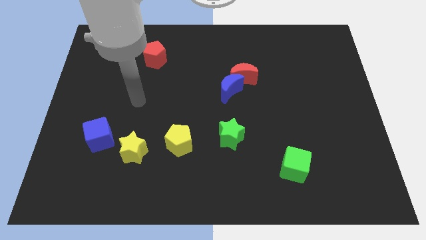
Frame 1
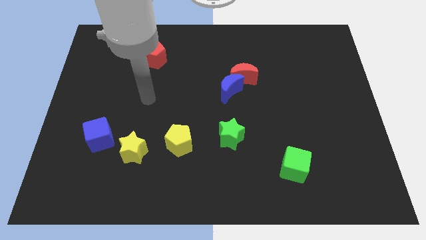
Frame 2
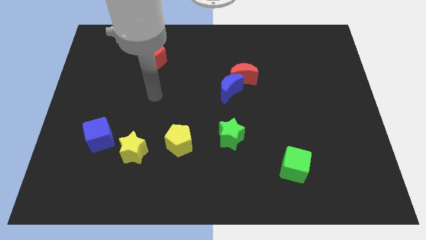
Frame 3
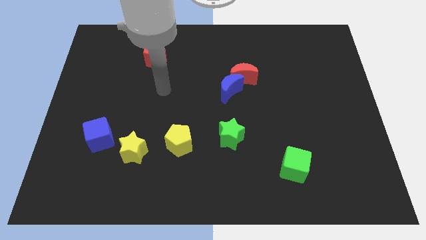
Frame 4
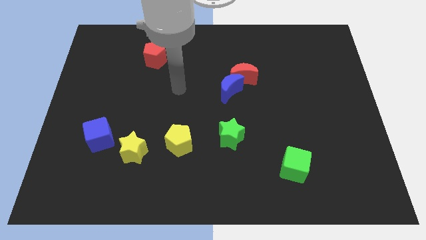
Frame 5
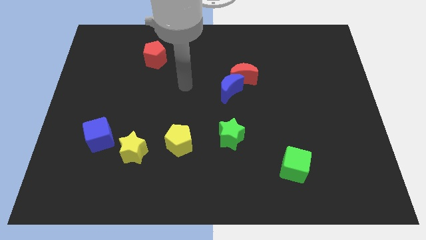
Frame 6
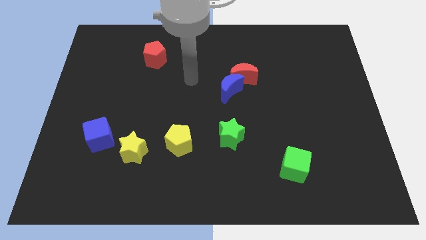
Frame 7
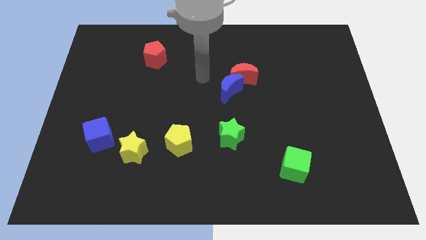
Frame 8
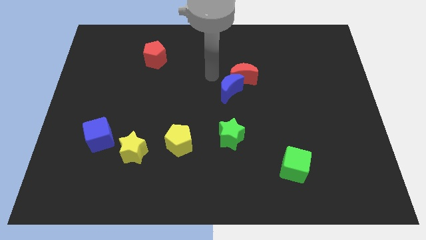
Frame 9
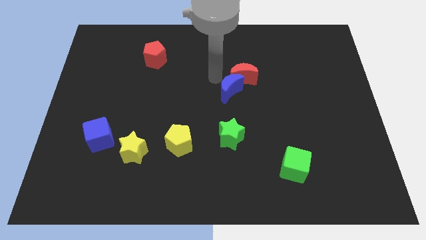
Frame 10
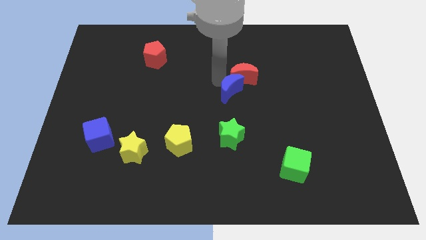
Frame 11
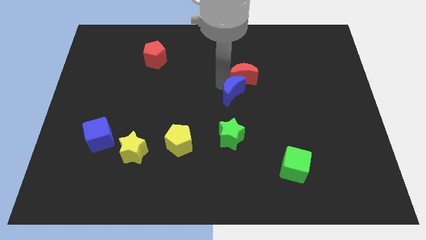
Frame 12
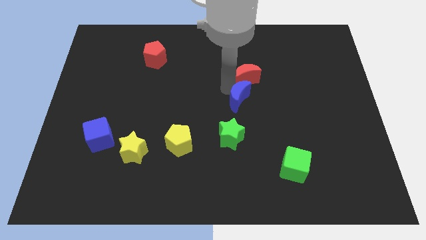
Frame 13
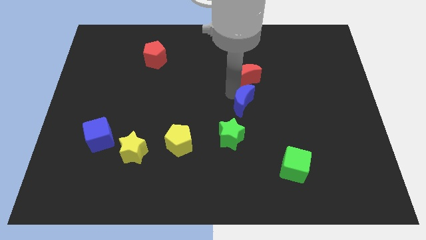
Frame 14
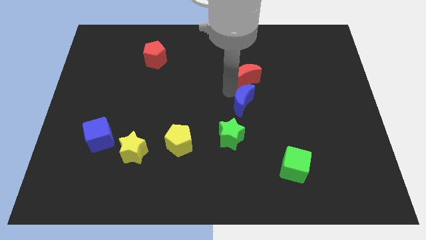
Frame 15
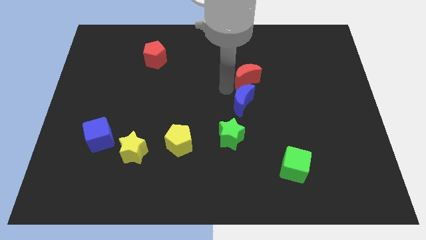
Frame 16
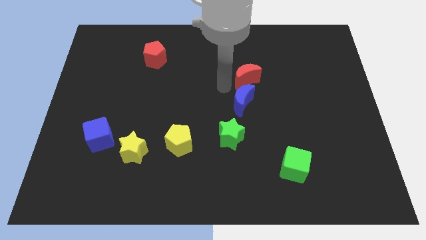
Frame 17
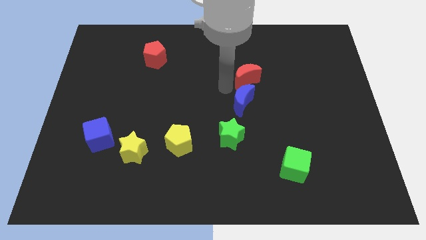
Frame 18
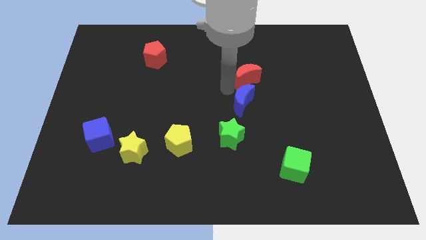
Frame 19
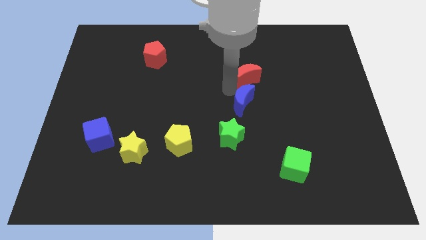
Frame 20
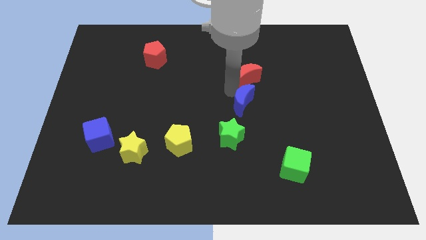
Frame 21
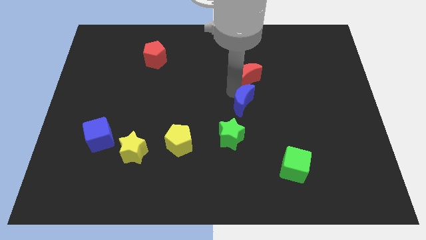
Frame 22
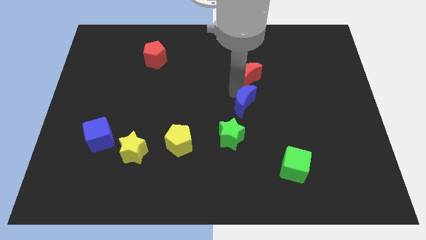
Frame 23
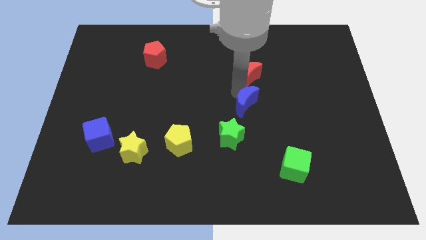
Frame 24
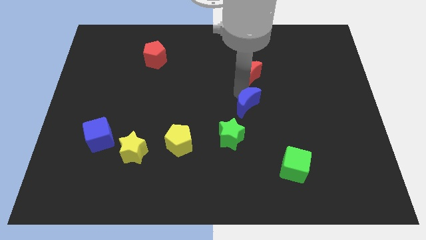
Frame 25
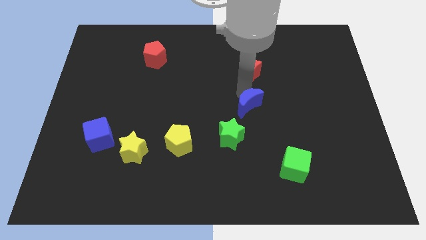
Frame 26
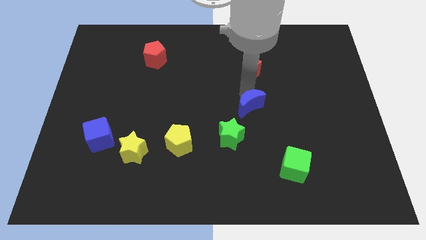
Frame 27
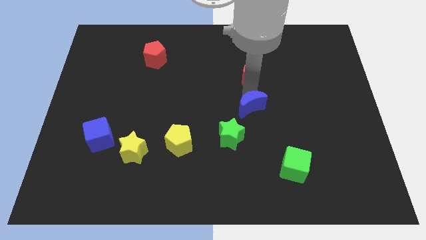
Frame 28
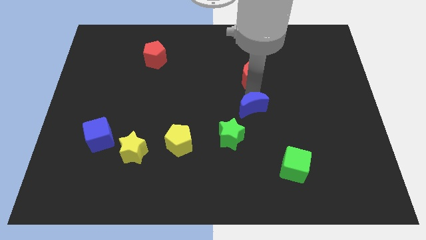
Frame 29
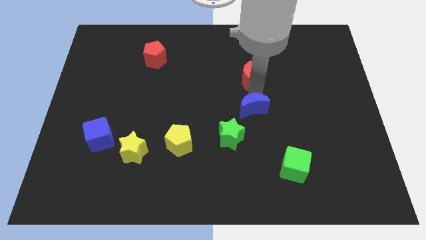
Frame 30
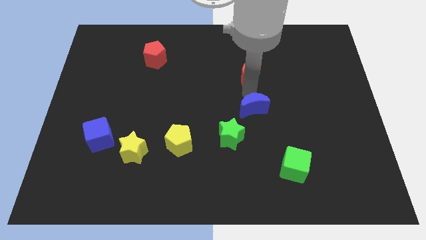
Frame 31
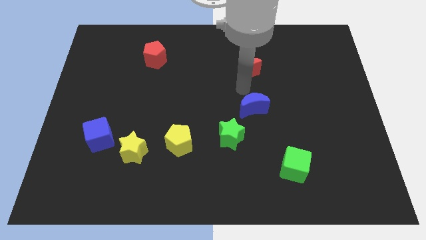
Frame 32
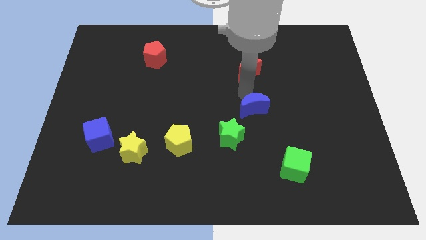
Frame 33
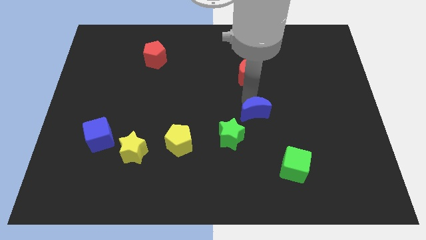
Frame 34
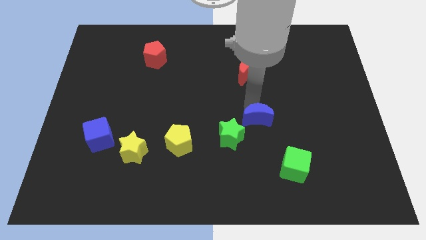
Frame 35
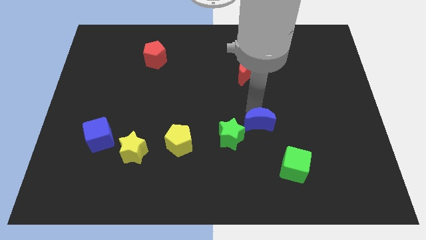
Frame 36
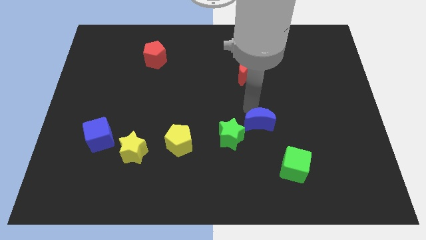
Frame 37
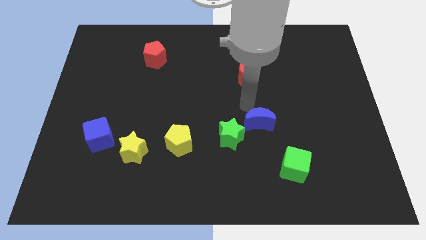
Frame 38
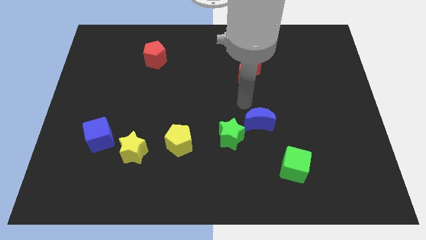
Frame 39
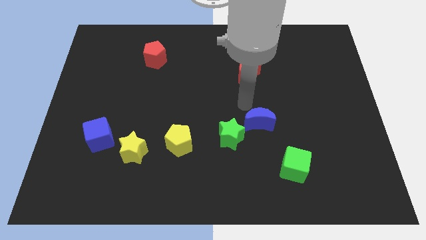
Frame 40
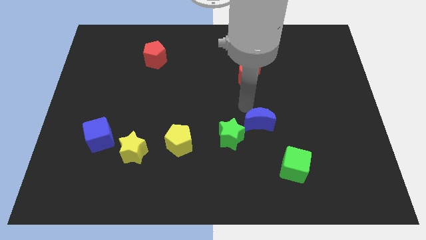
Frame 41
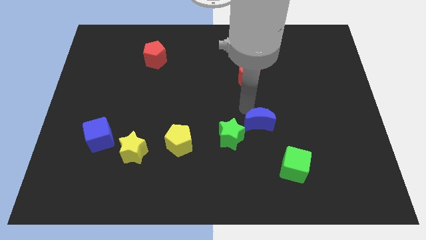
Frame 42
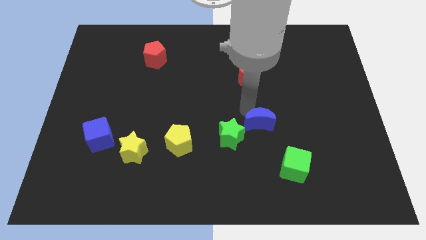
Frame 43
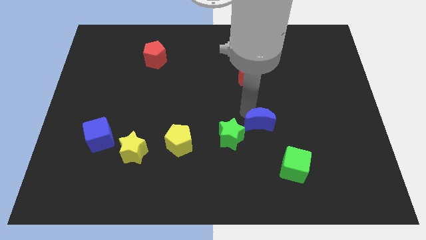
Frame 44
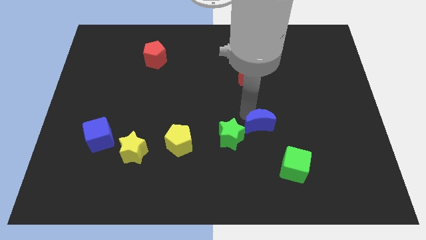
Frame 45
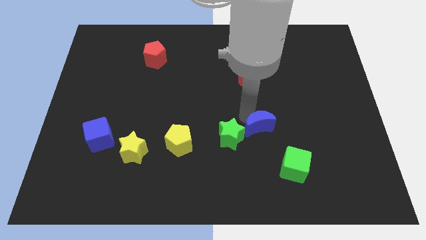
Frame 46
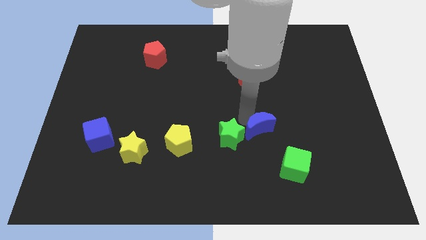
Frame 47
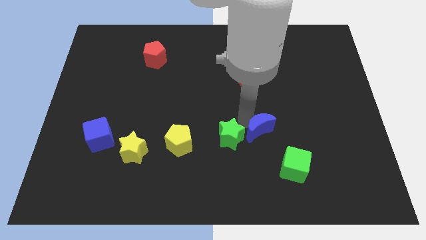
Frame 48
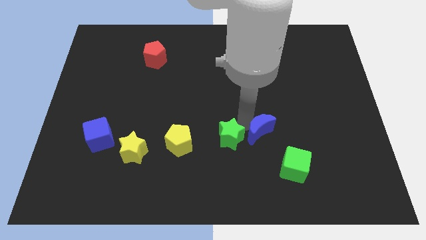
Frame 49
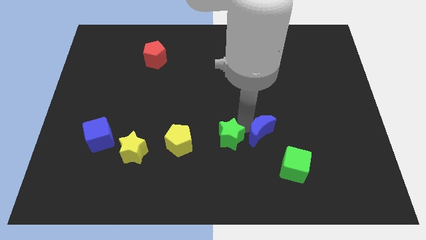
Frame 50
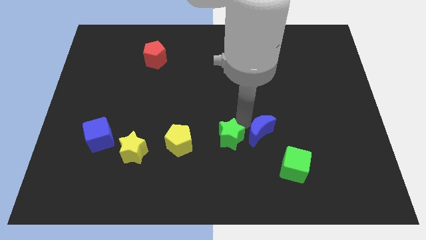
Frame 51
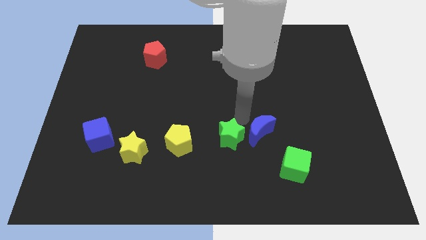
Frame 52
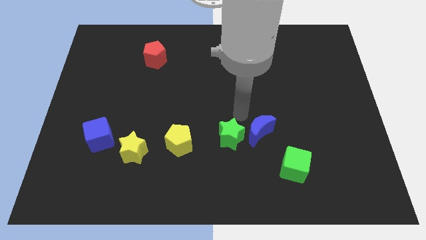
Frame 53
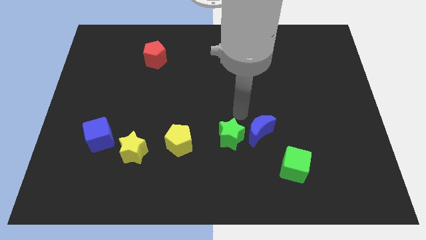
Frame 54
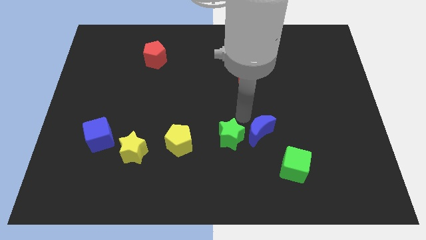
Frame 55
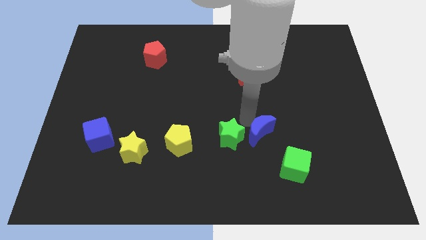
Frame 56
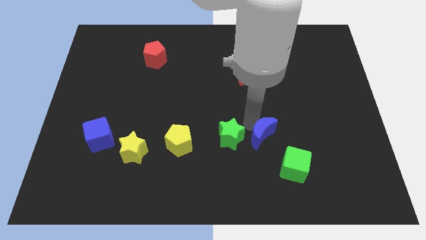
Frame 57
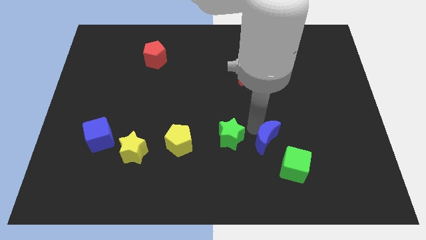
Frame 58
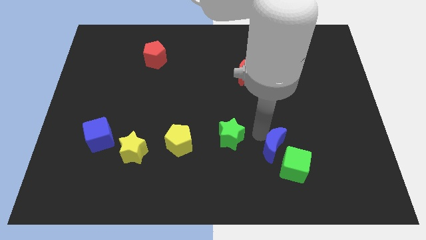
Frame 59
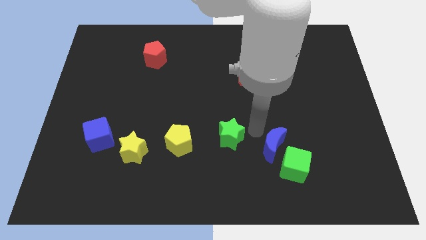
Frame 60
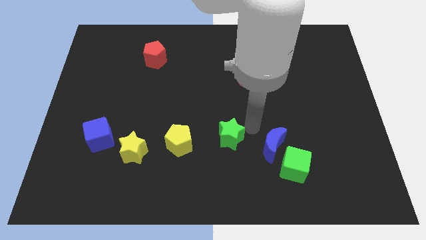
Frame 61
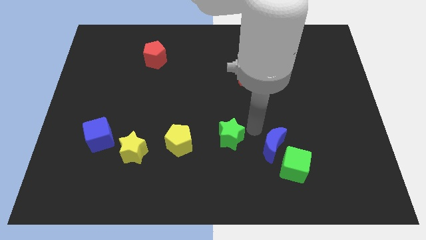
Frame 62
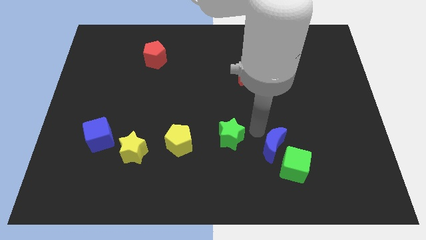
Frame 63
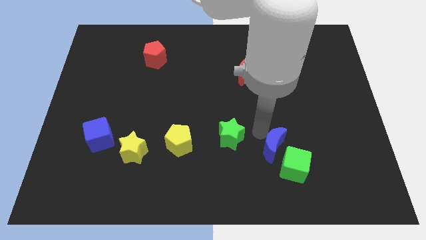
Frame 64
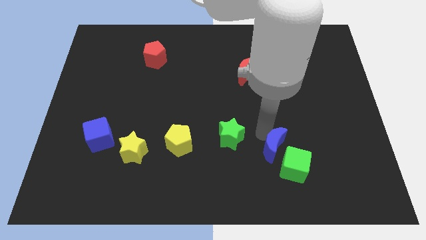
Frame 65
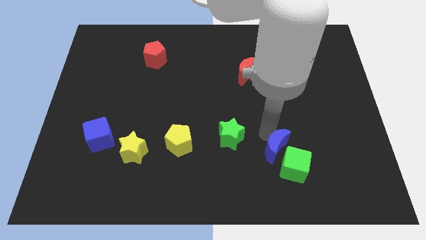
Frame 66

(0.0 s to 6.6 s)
slide the blue moon towards the green cube

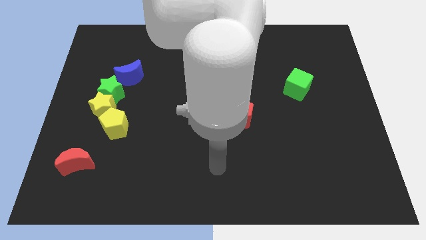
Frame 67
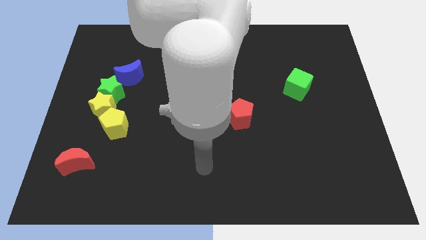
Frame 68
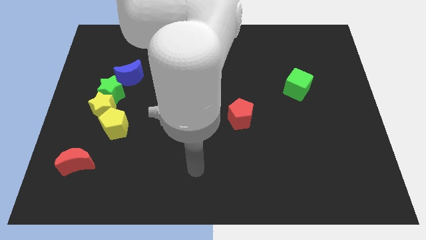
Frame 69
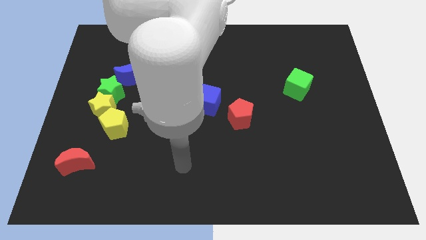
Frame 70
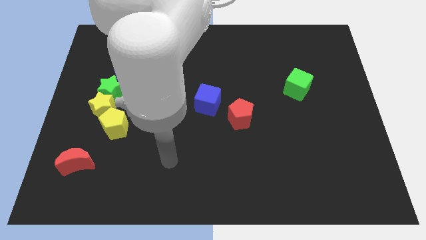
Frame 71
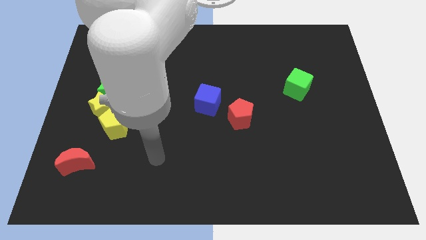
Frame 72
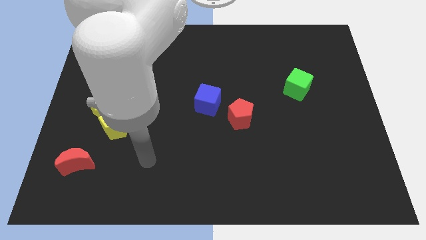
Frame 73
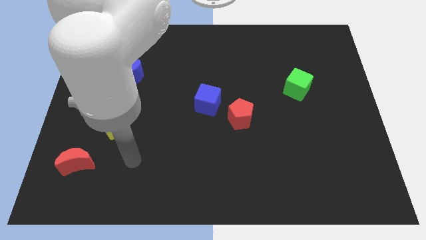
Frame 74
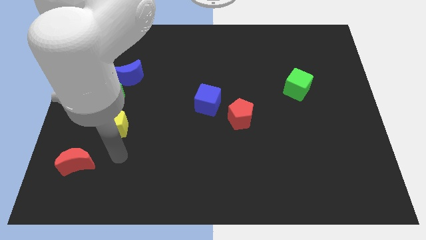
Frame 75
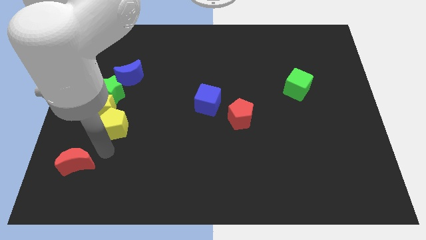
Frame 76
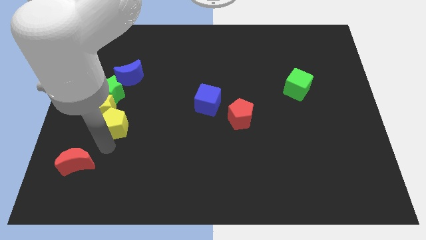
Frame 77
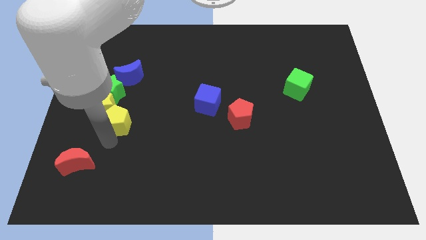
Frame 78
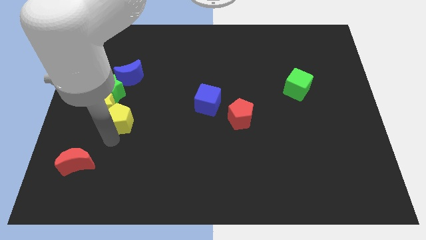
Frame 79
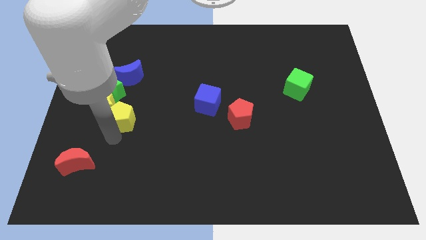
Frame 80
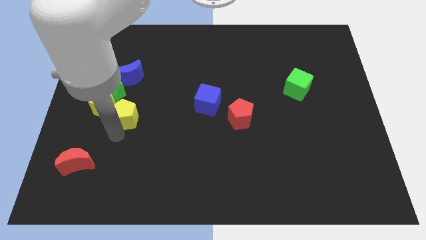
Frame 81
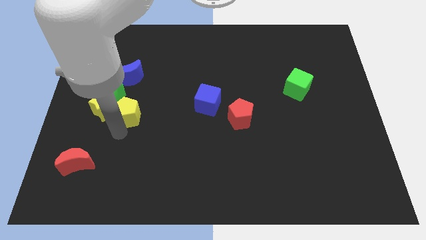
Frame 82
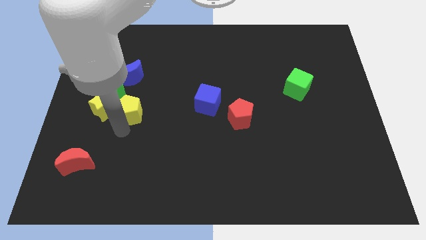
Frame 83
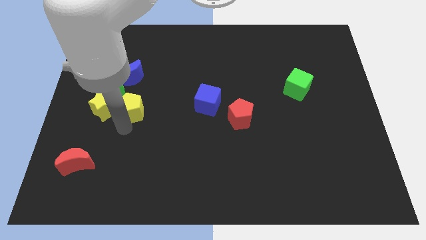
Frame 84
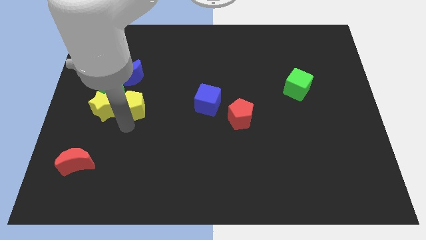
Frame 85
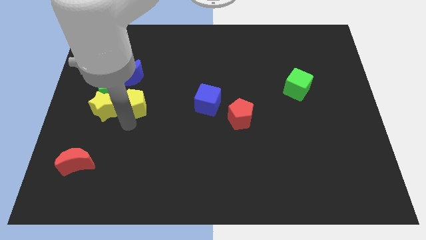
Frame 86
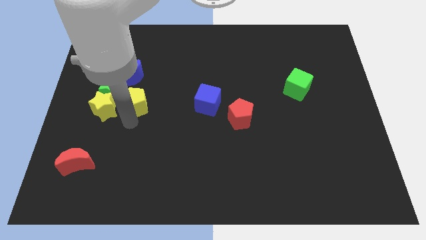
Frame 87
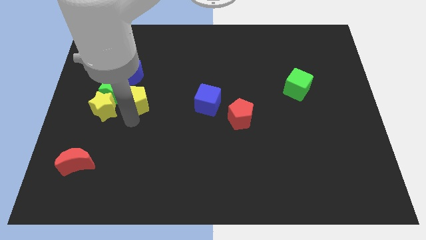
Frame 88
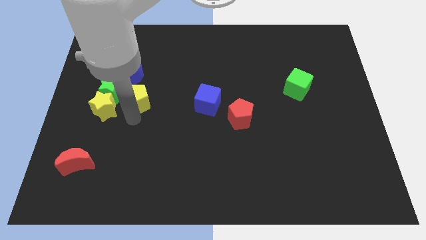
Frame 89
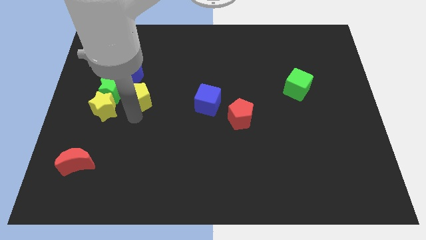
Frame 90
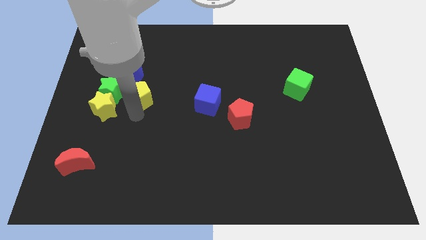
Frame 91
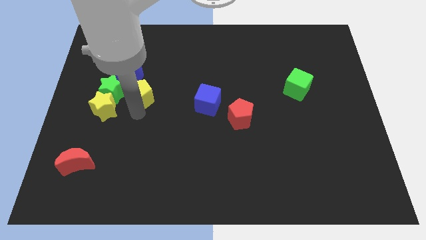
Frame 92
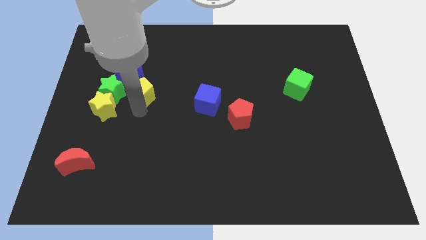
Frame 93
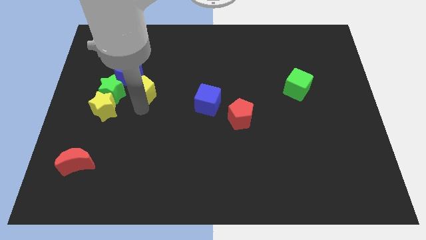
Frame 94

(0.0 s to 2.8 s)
put the yellow pentagon to the blue moon
